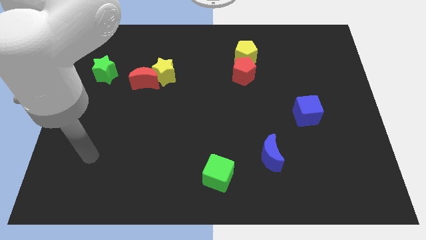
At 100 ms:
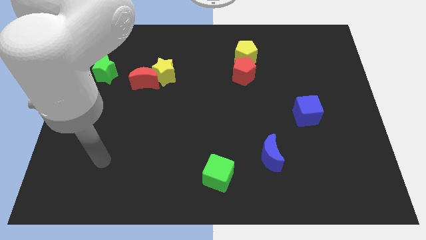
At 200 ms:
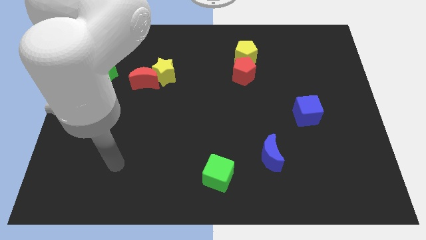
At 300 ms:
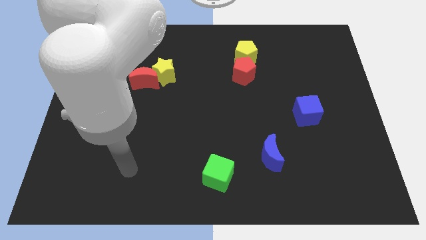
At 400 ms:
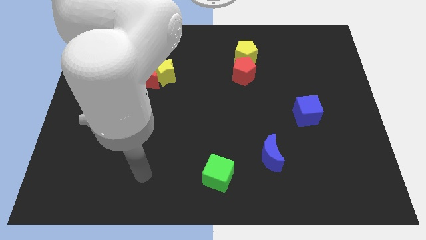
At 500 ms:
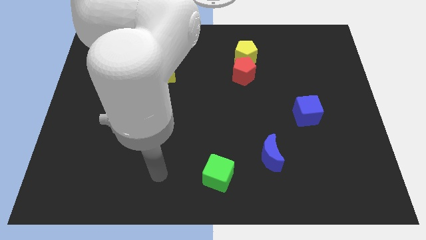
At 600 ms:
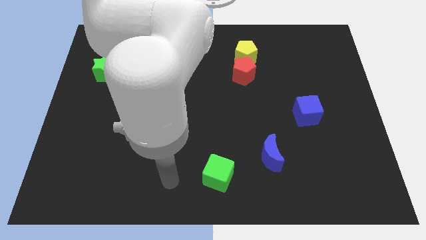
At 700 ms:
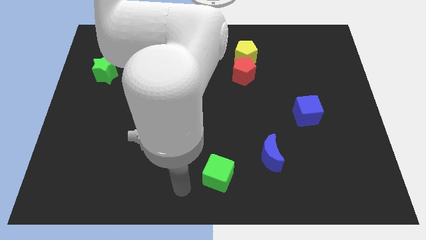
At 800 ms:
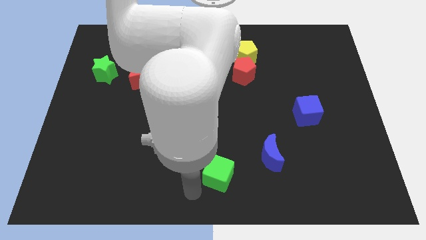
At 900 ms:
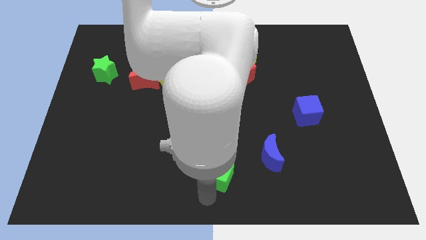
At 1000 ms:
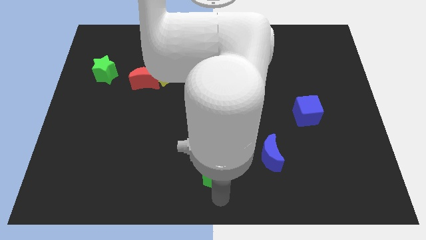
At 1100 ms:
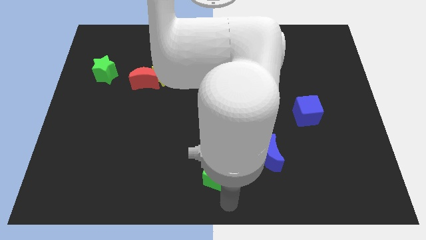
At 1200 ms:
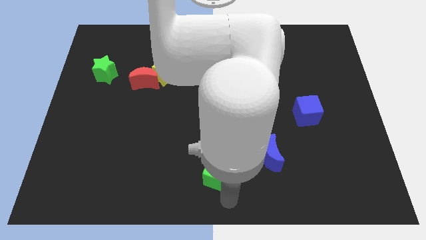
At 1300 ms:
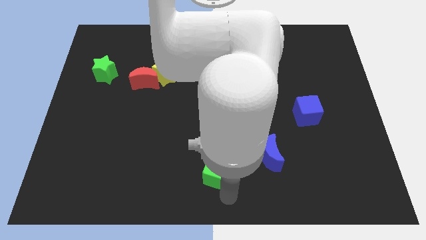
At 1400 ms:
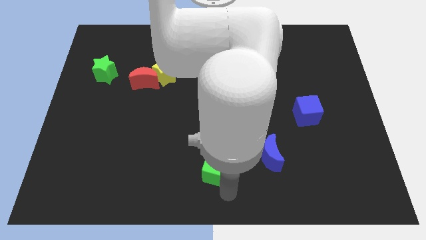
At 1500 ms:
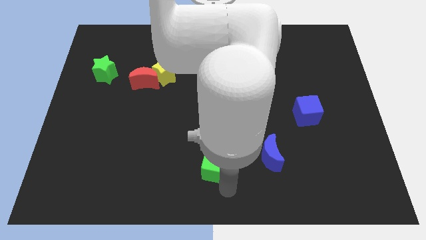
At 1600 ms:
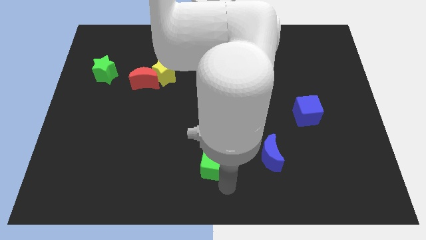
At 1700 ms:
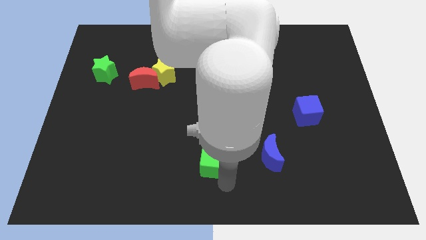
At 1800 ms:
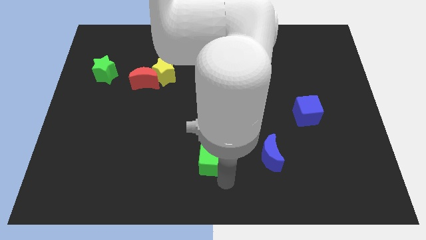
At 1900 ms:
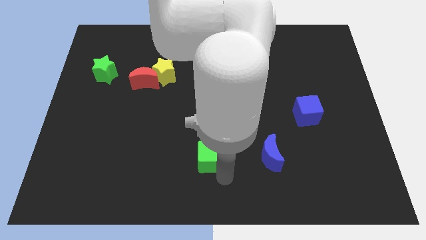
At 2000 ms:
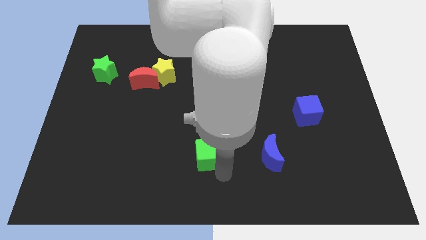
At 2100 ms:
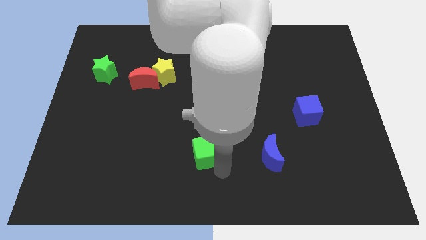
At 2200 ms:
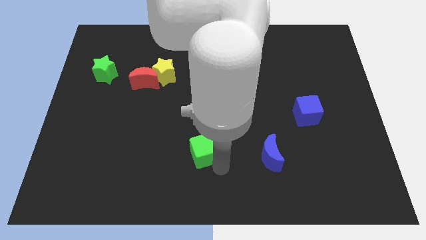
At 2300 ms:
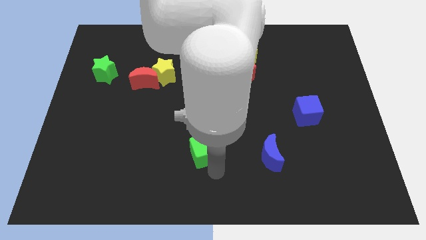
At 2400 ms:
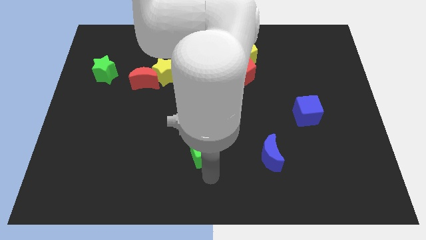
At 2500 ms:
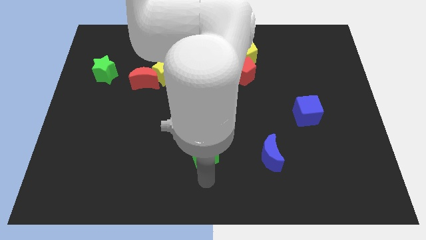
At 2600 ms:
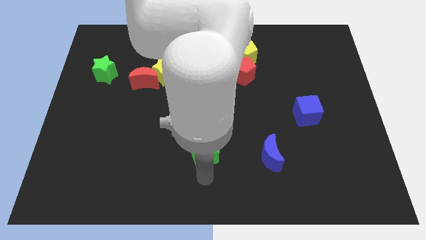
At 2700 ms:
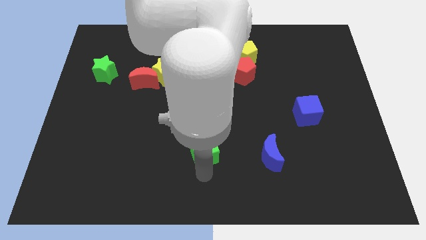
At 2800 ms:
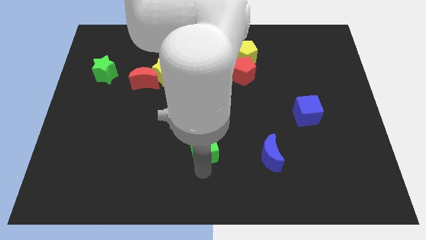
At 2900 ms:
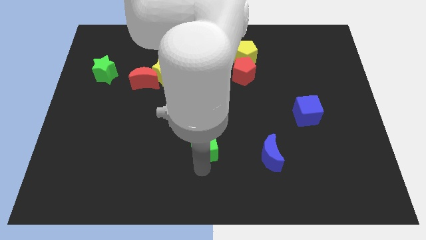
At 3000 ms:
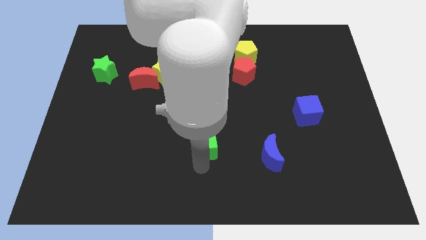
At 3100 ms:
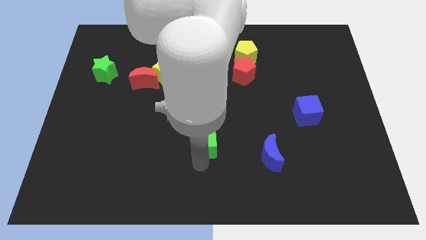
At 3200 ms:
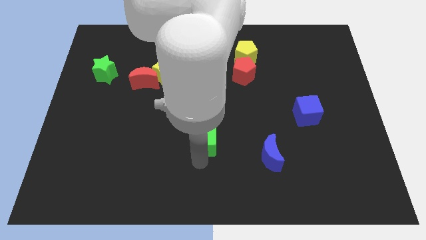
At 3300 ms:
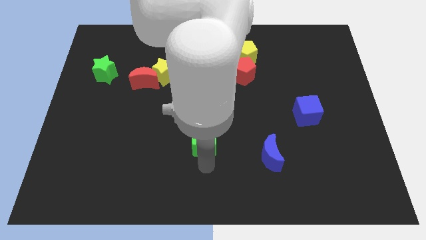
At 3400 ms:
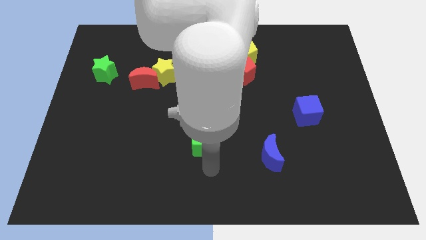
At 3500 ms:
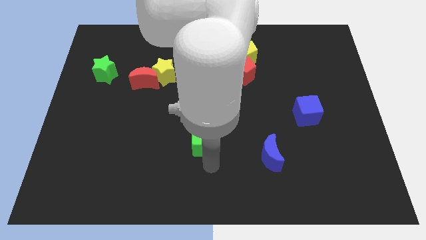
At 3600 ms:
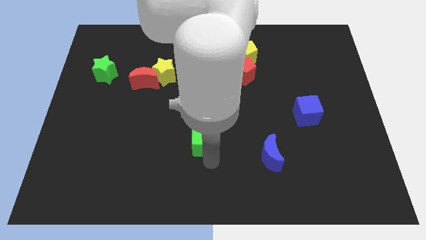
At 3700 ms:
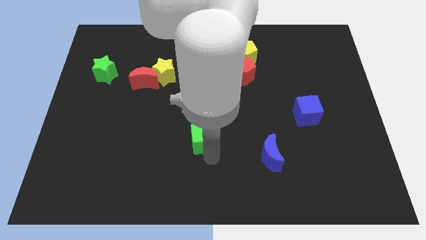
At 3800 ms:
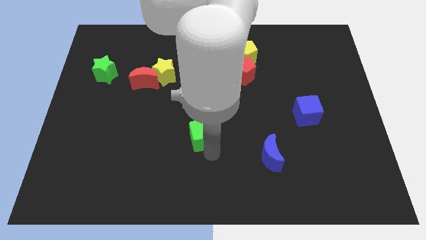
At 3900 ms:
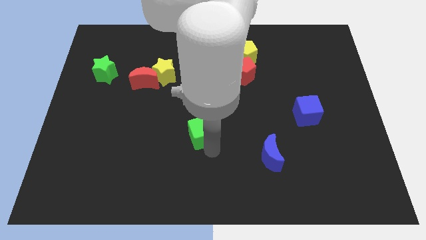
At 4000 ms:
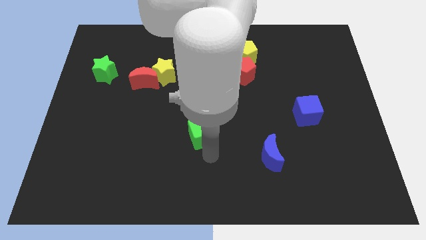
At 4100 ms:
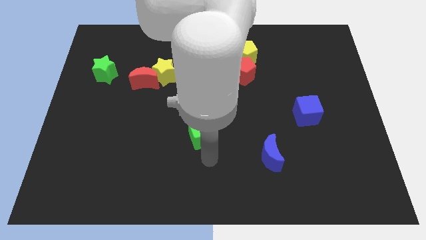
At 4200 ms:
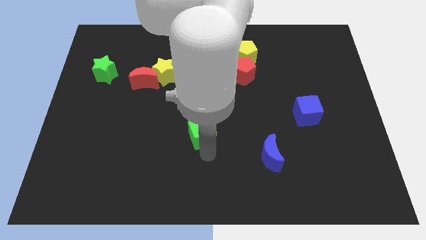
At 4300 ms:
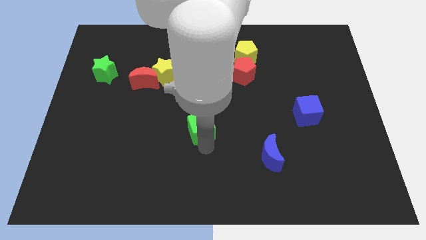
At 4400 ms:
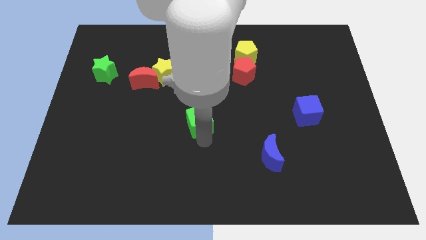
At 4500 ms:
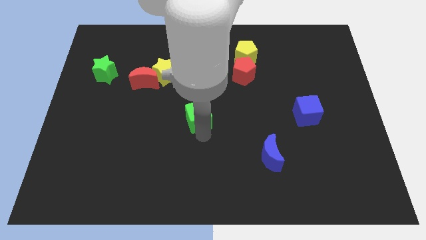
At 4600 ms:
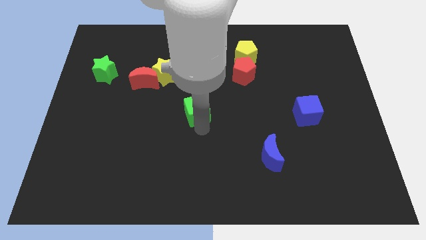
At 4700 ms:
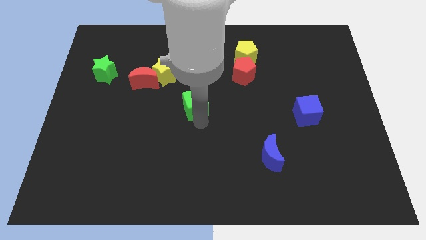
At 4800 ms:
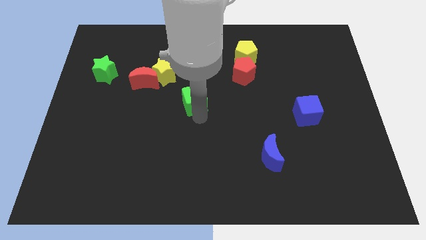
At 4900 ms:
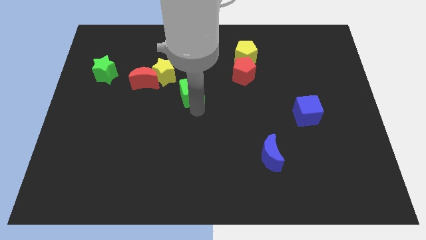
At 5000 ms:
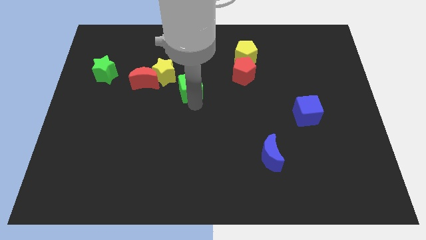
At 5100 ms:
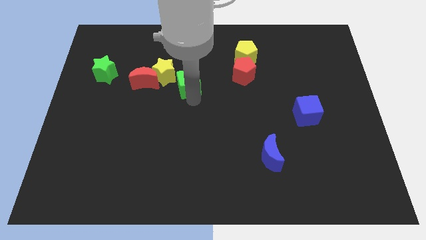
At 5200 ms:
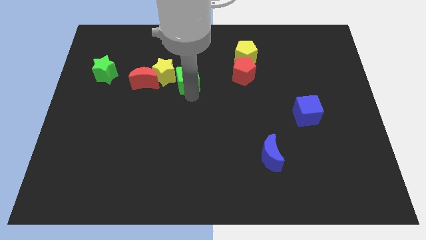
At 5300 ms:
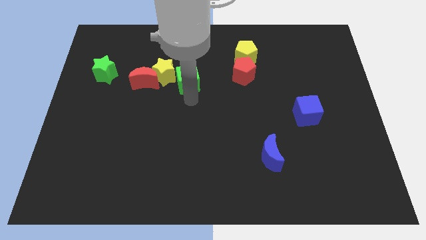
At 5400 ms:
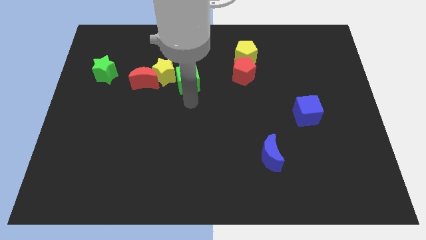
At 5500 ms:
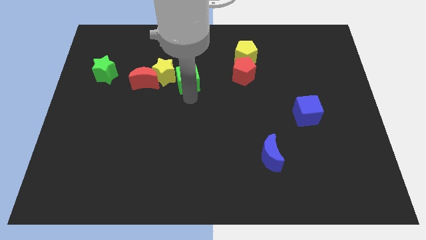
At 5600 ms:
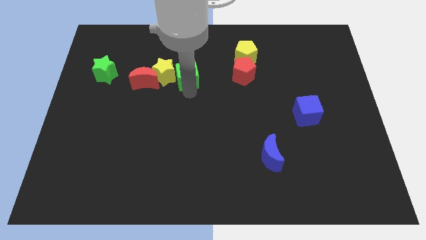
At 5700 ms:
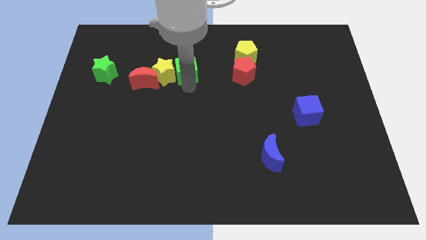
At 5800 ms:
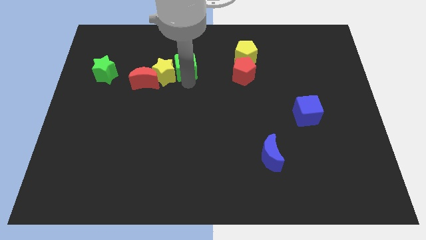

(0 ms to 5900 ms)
move the green cube diagonally up and to the right of the red moon

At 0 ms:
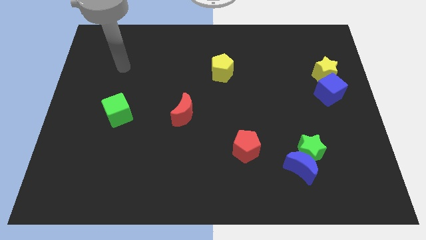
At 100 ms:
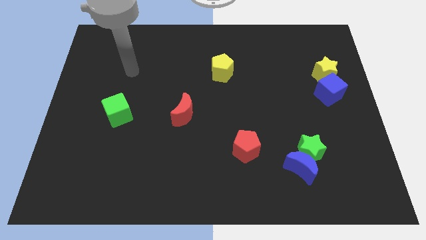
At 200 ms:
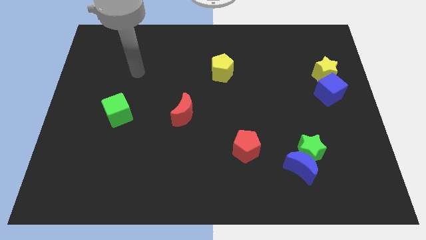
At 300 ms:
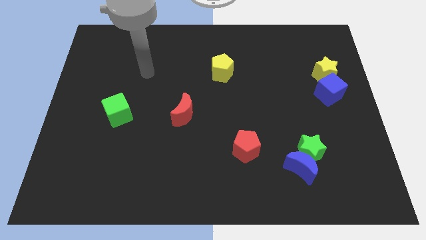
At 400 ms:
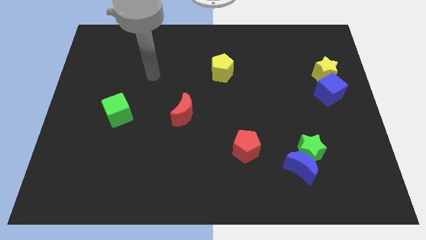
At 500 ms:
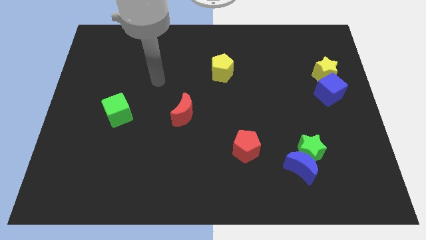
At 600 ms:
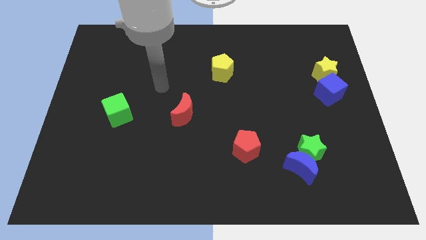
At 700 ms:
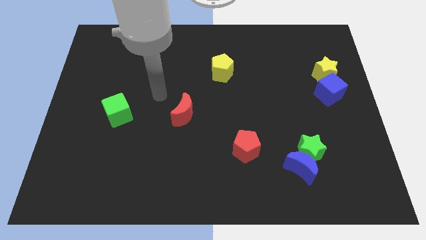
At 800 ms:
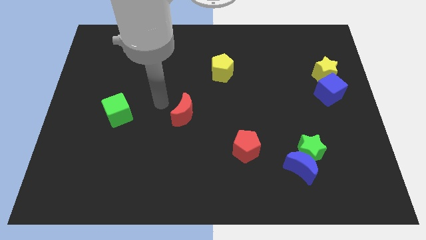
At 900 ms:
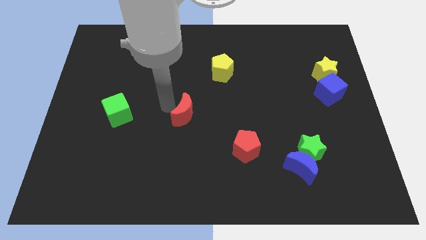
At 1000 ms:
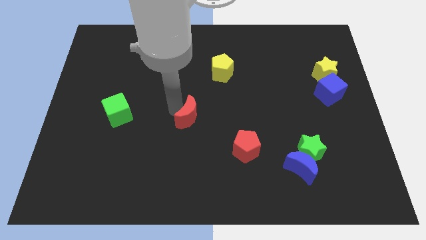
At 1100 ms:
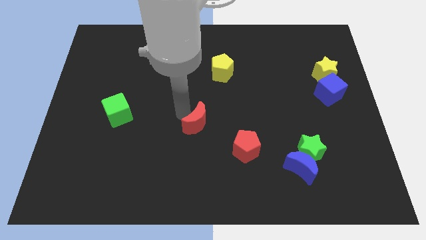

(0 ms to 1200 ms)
move the red moon to the top left side of the red pentagon
